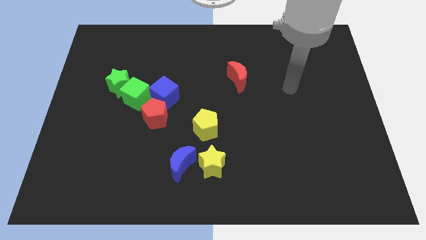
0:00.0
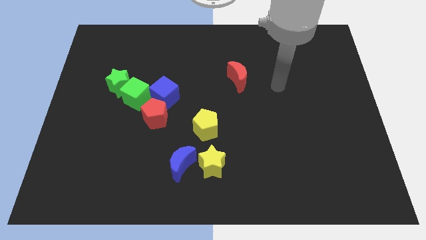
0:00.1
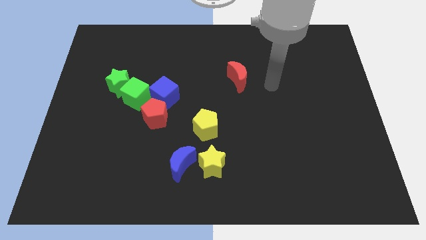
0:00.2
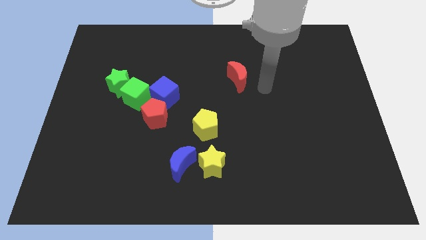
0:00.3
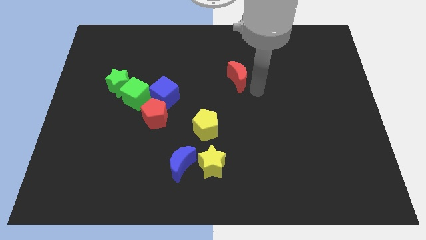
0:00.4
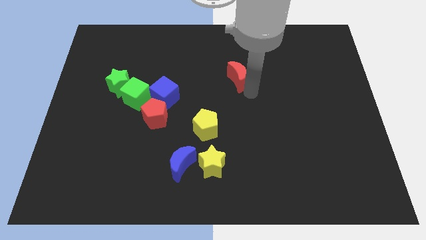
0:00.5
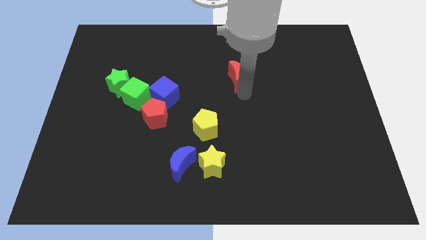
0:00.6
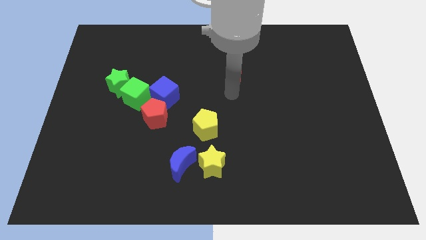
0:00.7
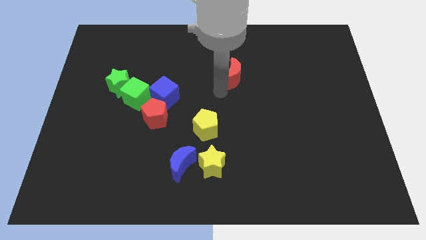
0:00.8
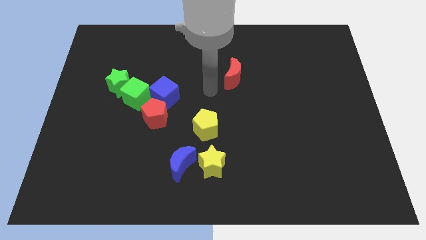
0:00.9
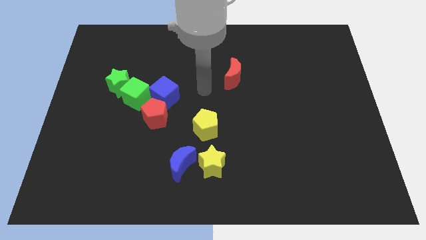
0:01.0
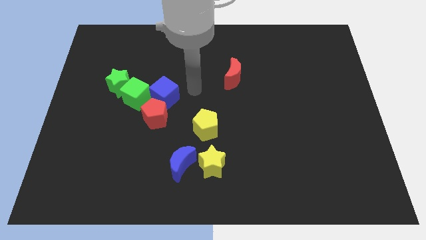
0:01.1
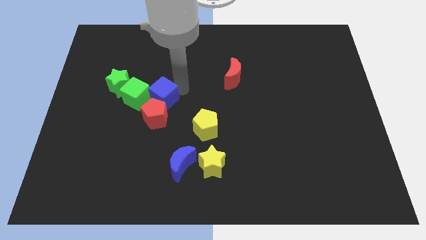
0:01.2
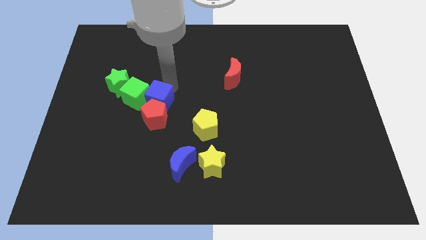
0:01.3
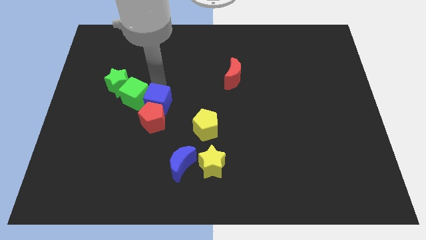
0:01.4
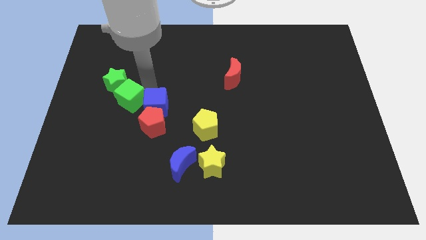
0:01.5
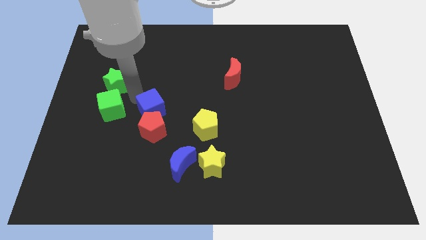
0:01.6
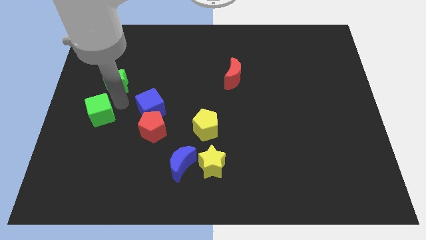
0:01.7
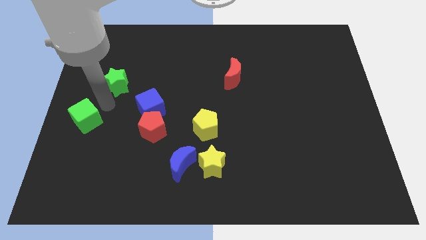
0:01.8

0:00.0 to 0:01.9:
pull the green star apart from the green cube

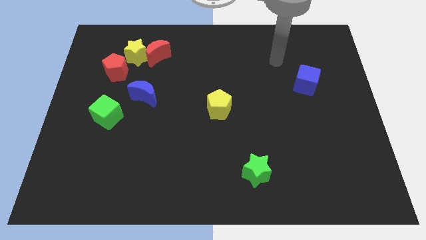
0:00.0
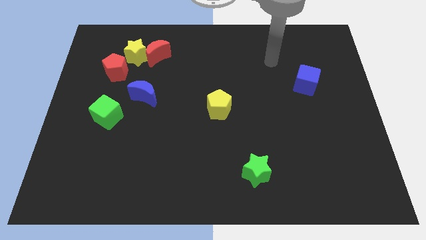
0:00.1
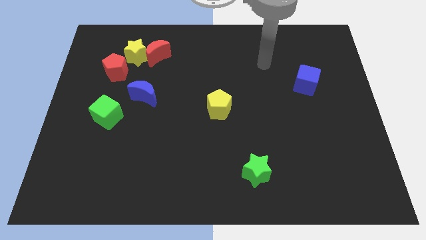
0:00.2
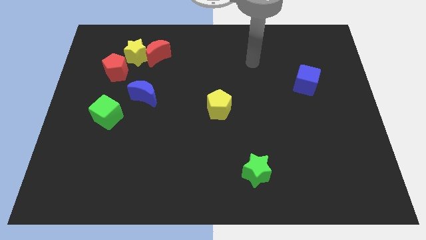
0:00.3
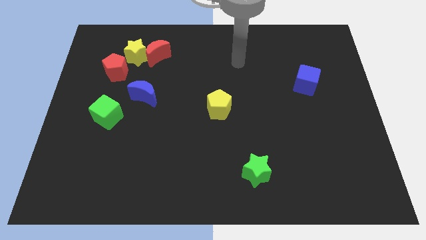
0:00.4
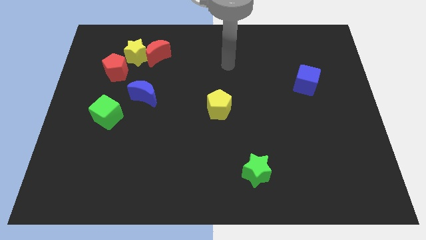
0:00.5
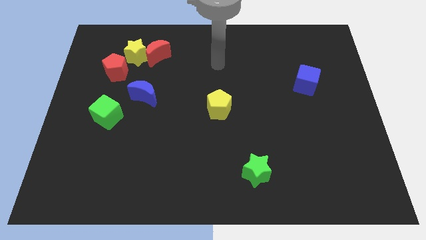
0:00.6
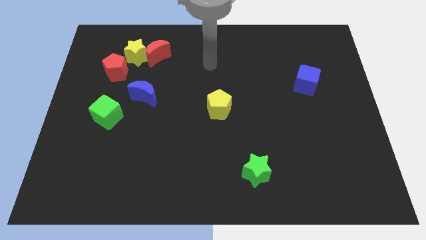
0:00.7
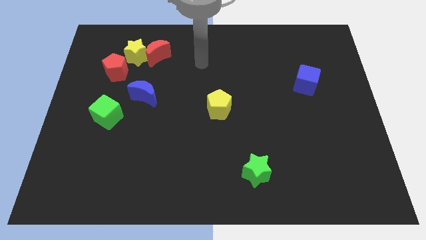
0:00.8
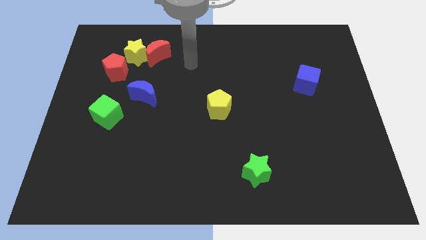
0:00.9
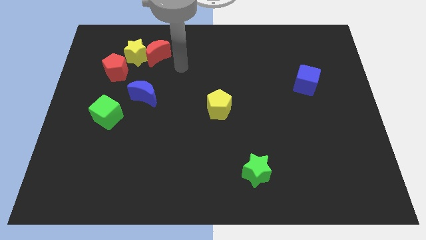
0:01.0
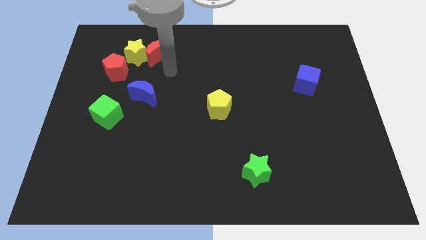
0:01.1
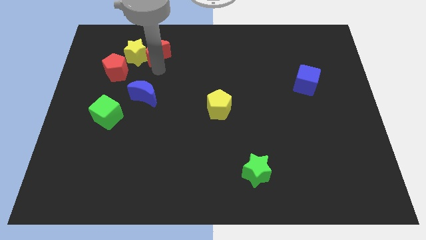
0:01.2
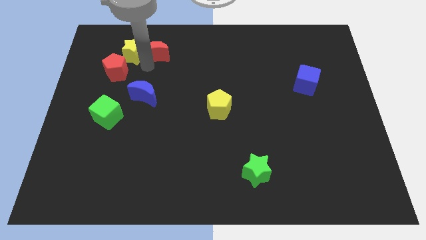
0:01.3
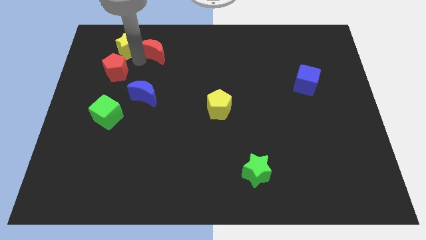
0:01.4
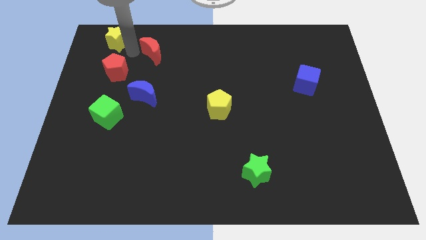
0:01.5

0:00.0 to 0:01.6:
separate the red moon from the yellow star

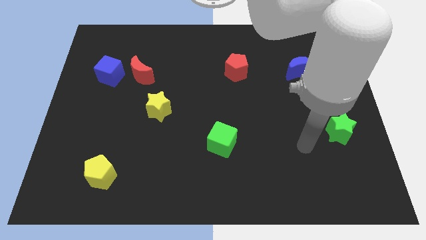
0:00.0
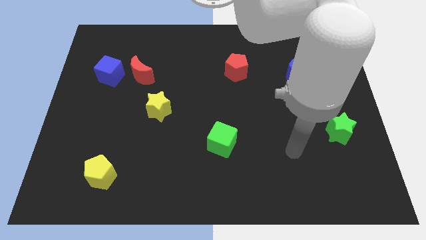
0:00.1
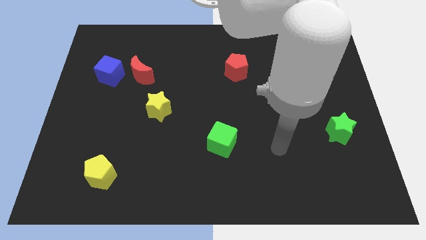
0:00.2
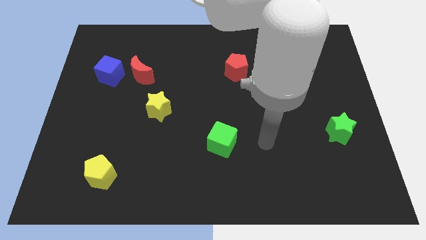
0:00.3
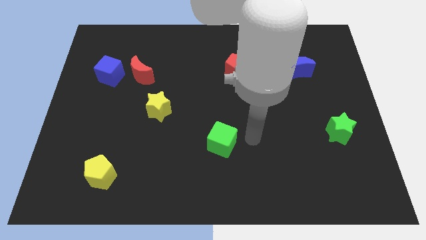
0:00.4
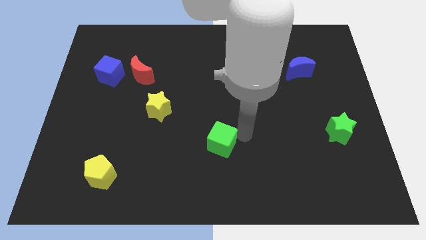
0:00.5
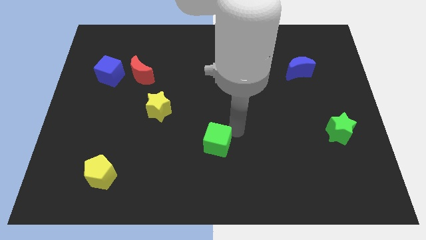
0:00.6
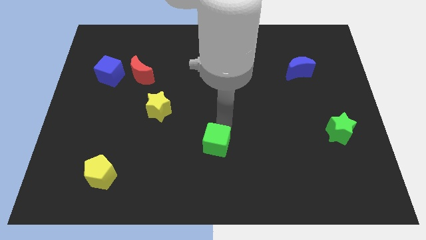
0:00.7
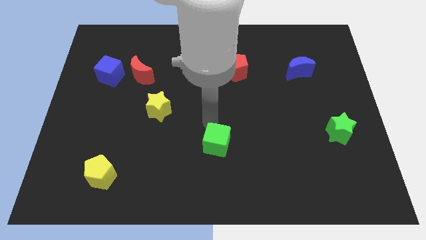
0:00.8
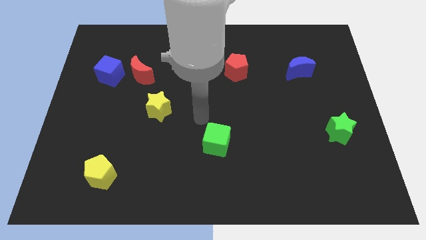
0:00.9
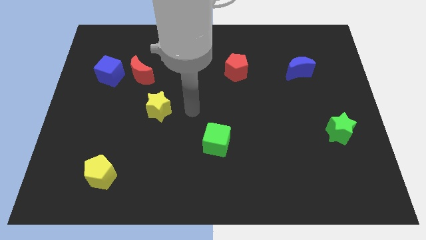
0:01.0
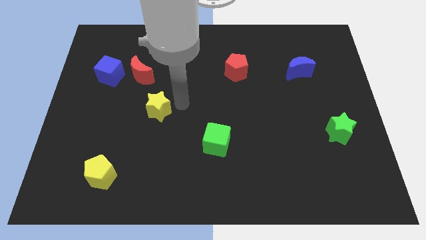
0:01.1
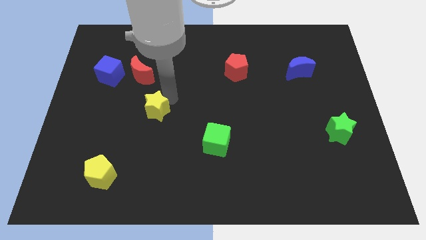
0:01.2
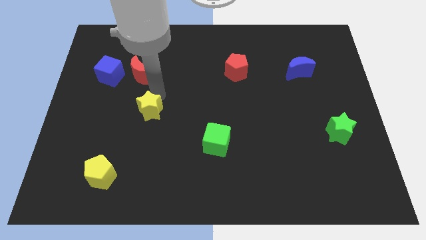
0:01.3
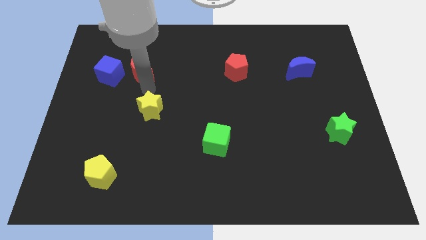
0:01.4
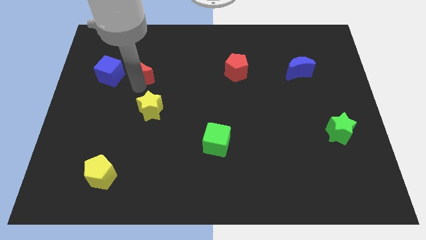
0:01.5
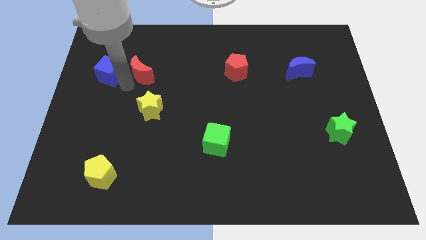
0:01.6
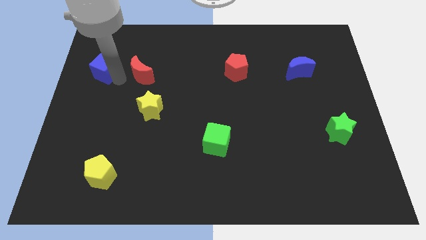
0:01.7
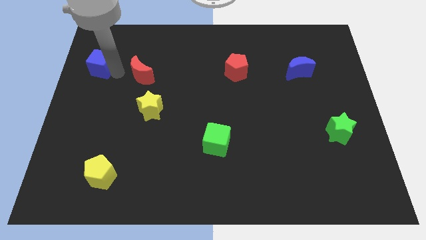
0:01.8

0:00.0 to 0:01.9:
pull the red moon apart from the blue cube

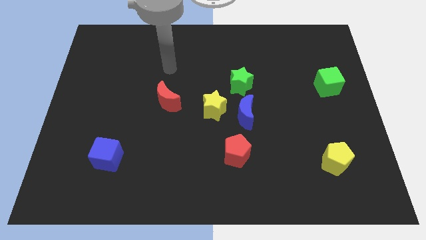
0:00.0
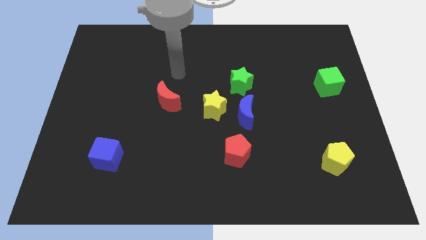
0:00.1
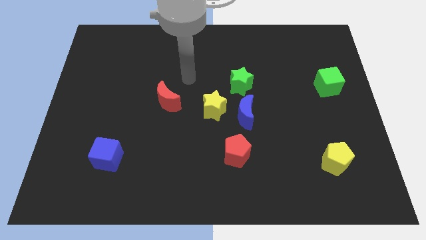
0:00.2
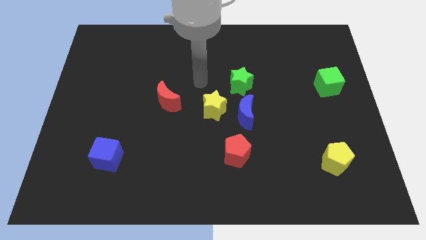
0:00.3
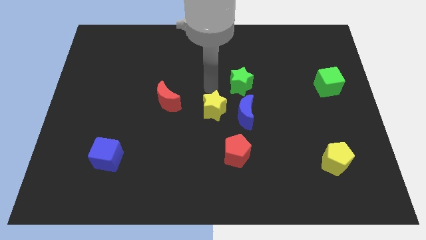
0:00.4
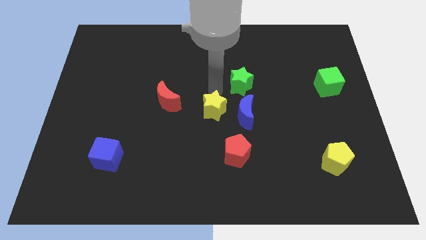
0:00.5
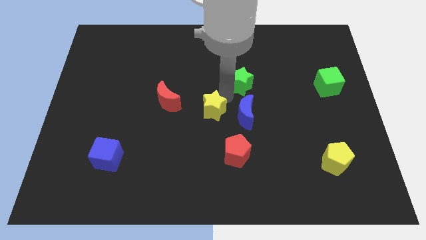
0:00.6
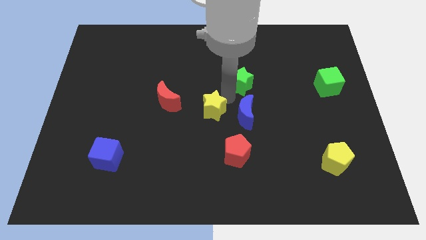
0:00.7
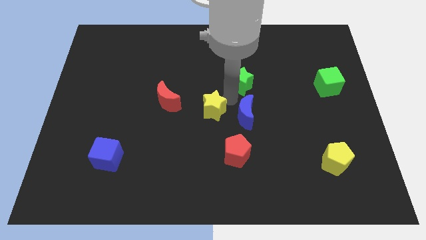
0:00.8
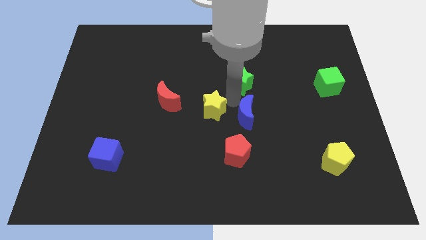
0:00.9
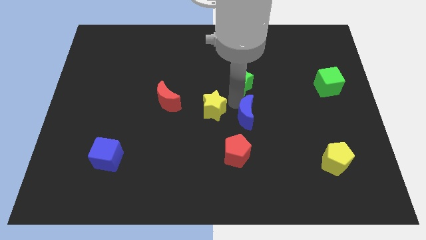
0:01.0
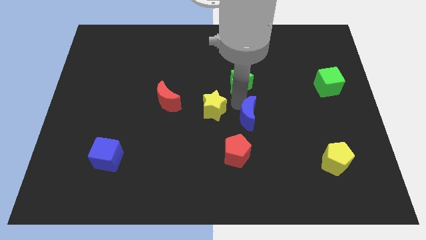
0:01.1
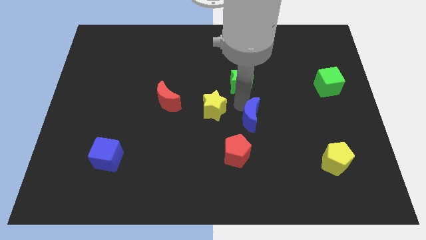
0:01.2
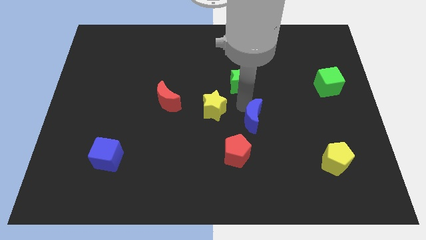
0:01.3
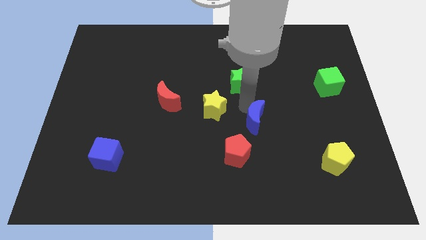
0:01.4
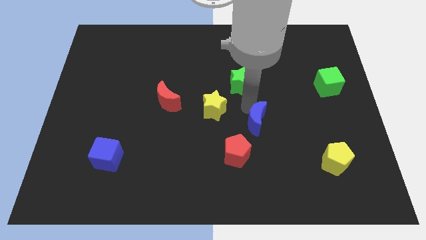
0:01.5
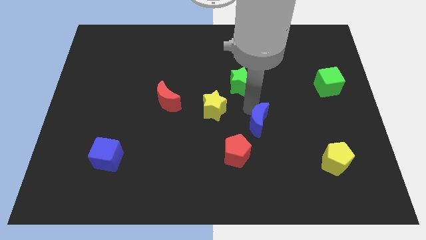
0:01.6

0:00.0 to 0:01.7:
pull the blue moon apart from the yellow star and green star

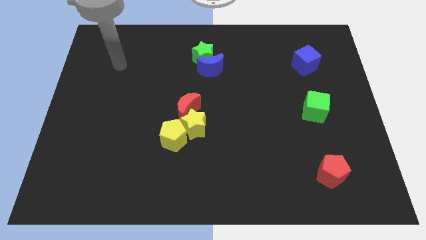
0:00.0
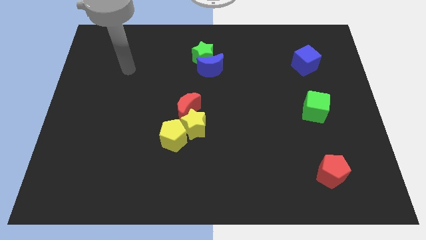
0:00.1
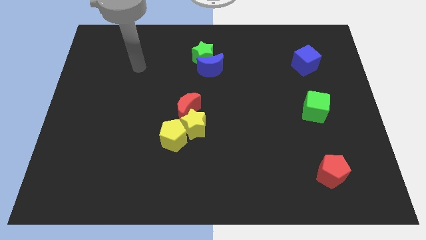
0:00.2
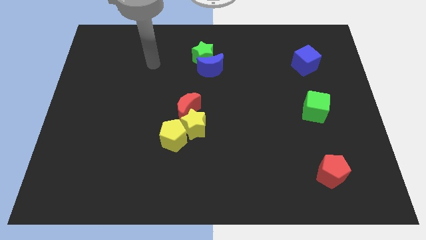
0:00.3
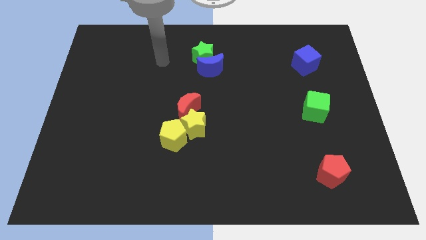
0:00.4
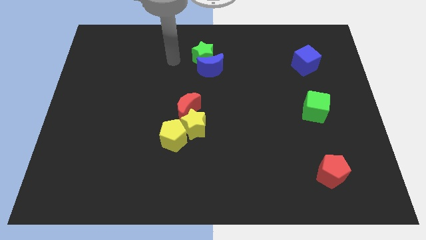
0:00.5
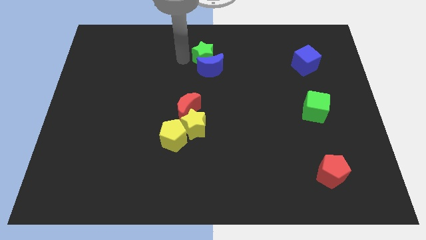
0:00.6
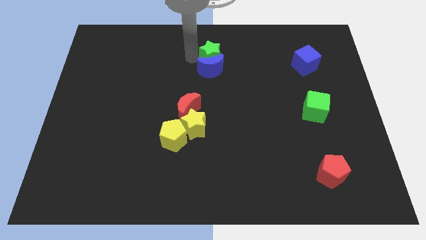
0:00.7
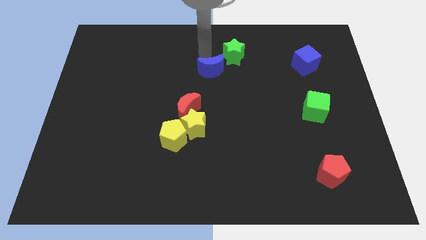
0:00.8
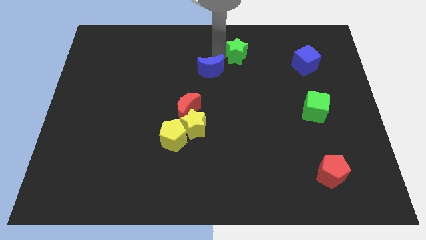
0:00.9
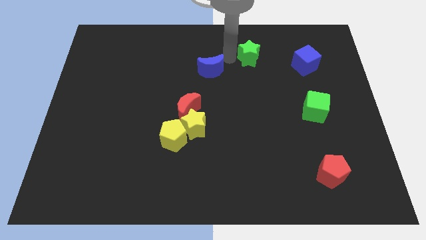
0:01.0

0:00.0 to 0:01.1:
pull the blue moon apart from the green star

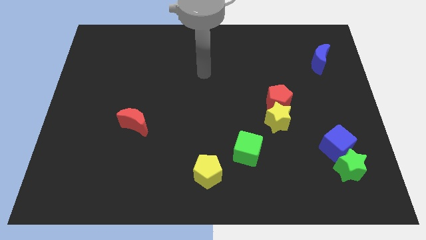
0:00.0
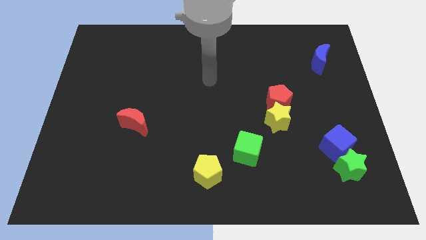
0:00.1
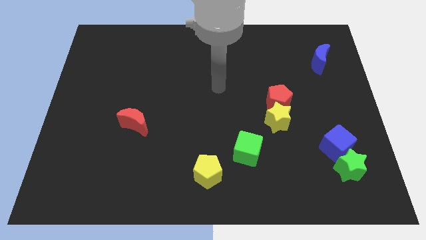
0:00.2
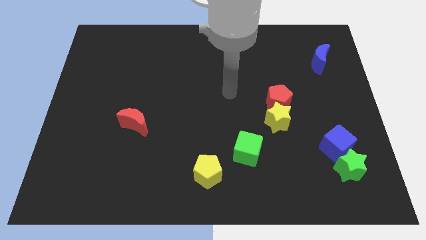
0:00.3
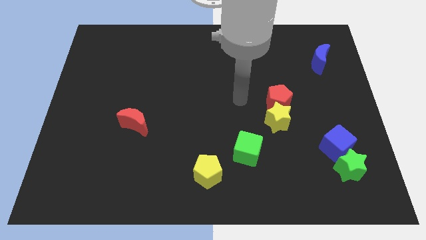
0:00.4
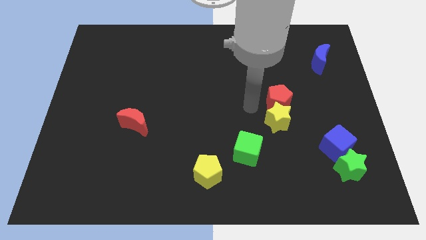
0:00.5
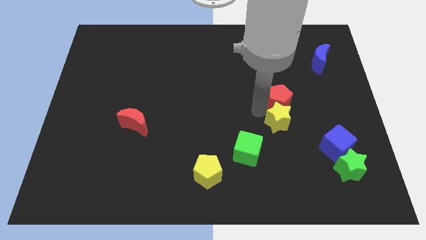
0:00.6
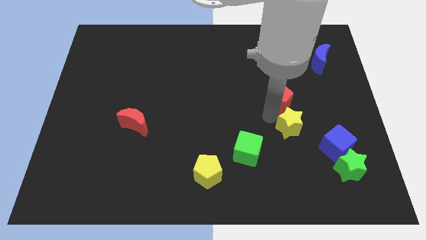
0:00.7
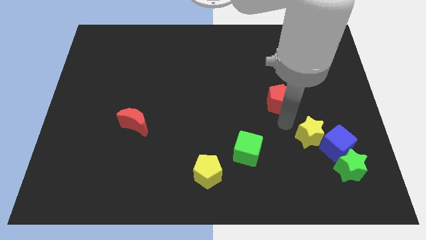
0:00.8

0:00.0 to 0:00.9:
move the red pentagon away from the yellow star

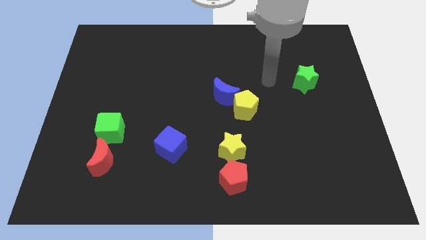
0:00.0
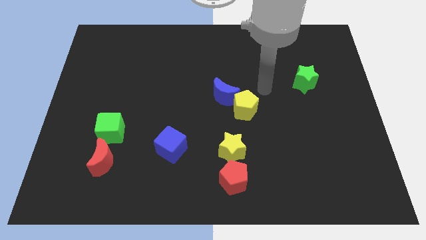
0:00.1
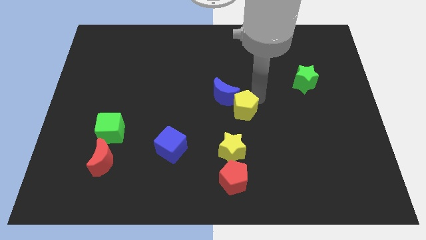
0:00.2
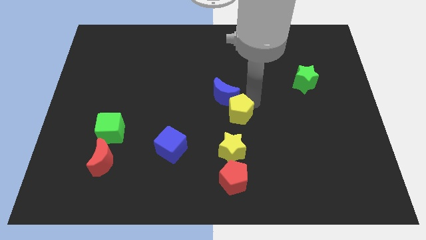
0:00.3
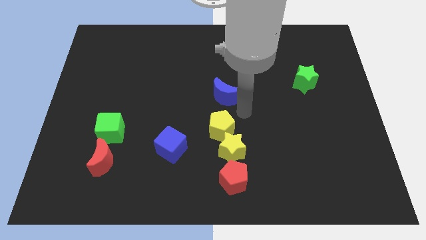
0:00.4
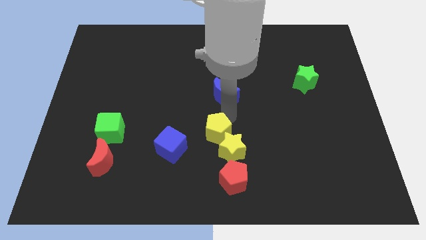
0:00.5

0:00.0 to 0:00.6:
separate the blue moon from the yellow pentagon
